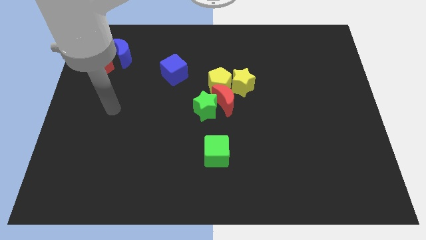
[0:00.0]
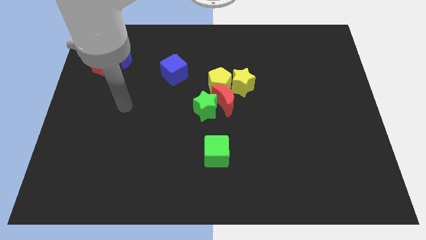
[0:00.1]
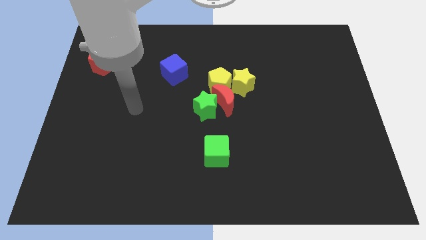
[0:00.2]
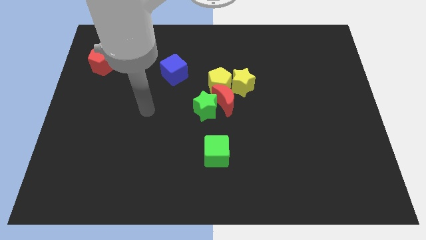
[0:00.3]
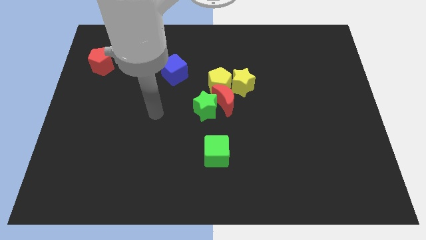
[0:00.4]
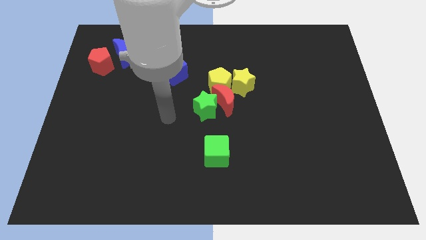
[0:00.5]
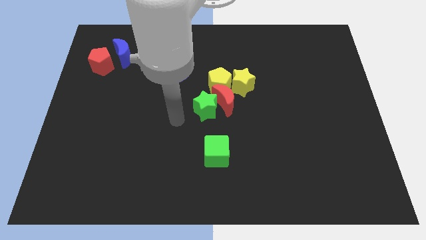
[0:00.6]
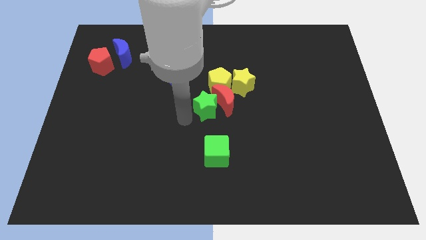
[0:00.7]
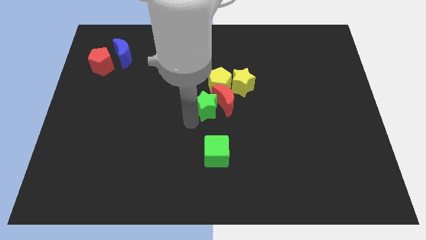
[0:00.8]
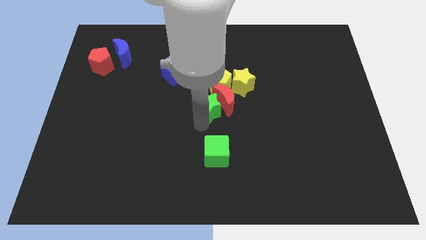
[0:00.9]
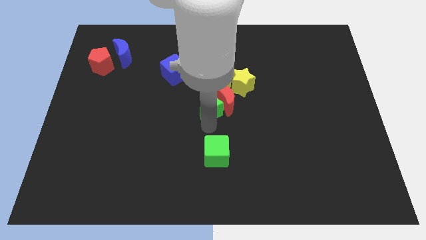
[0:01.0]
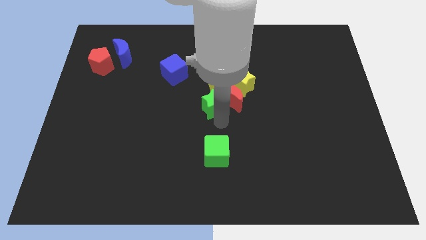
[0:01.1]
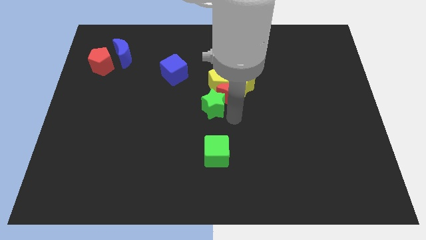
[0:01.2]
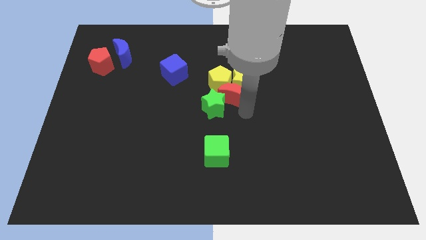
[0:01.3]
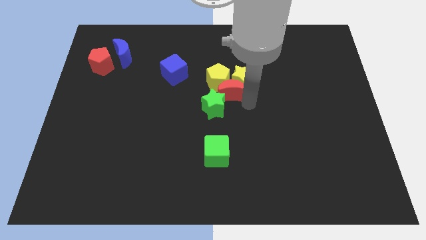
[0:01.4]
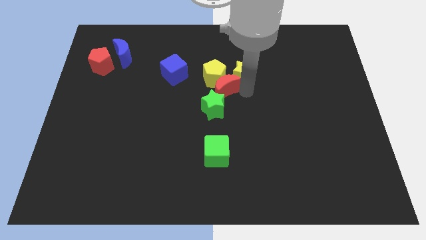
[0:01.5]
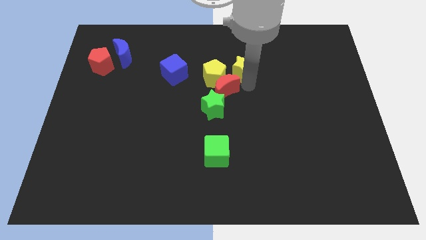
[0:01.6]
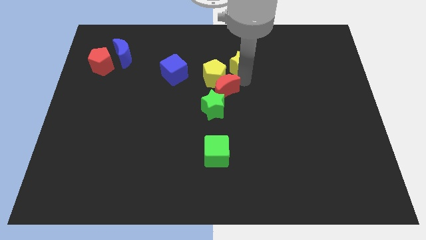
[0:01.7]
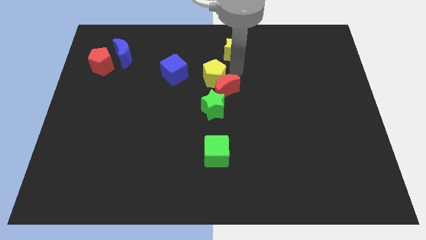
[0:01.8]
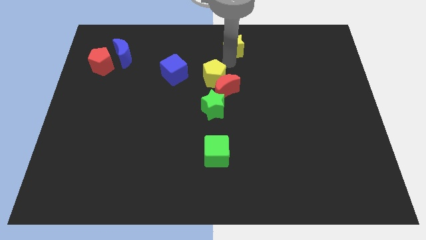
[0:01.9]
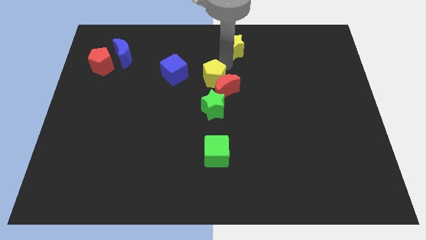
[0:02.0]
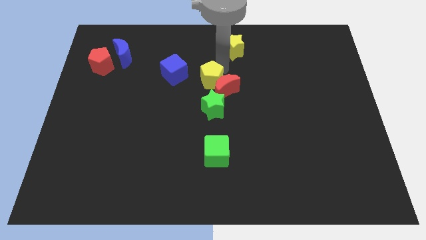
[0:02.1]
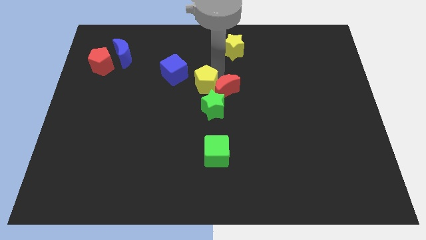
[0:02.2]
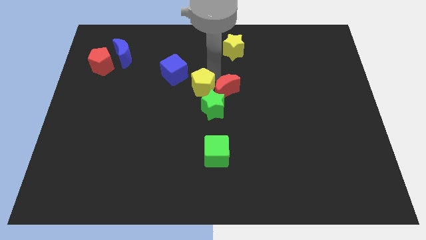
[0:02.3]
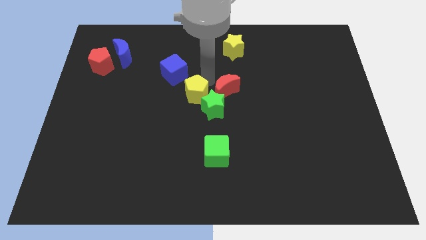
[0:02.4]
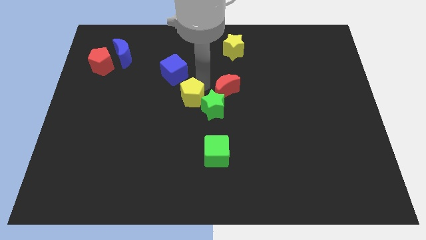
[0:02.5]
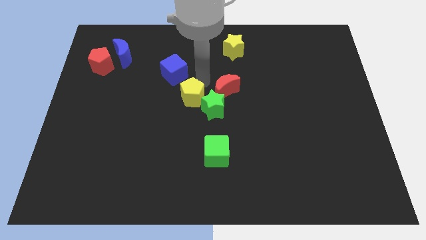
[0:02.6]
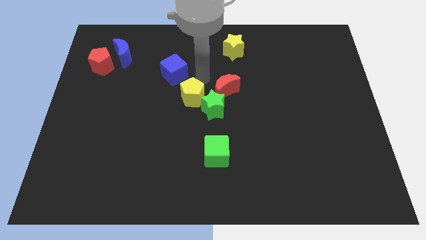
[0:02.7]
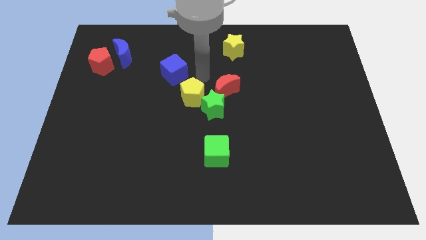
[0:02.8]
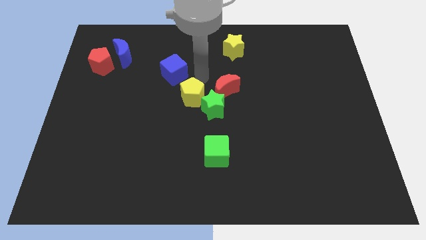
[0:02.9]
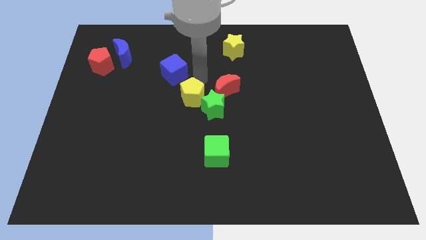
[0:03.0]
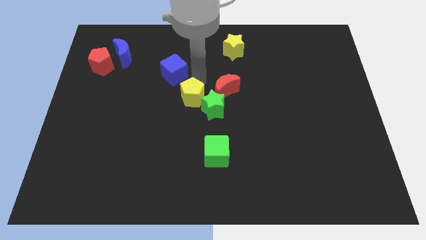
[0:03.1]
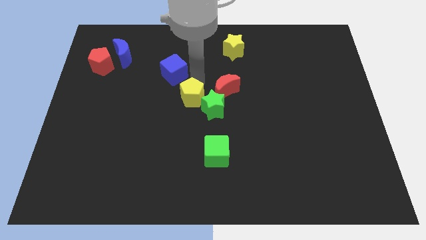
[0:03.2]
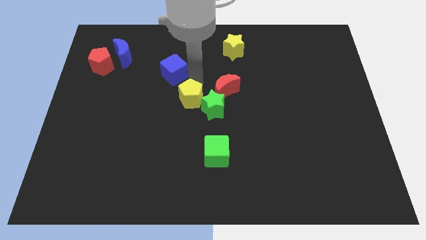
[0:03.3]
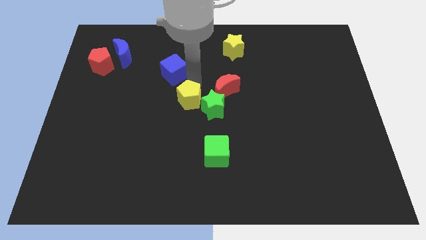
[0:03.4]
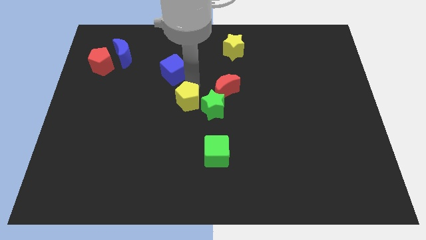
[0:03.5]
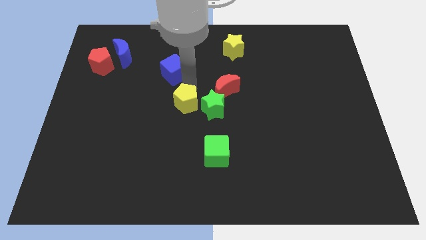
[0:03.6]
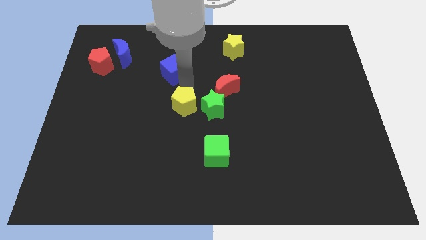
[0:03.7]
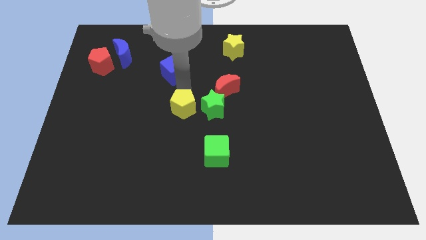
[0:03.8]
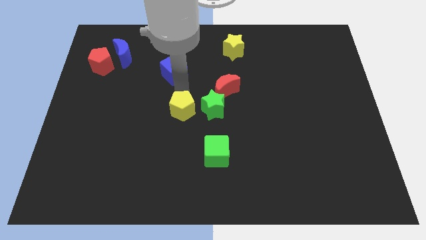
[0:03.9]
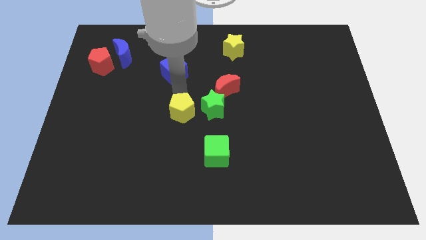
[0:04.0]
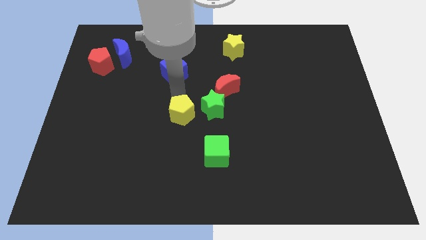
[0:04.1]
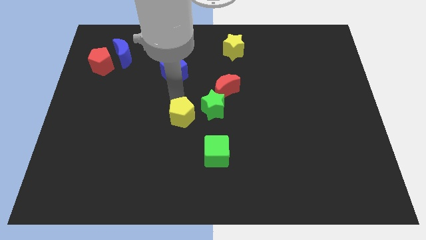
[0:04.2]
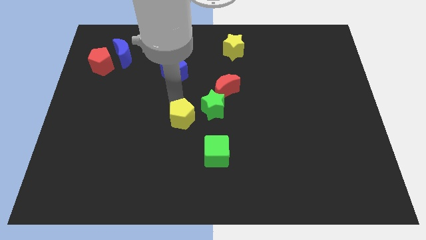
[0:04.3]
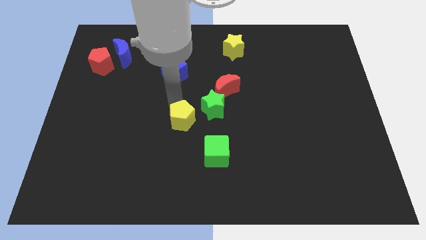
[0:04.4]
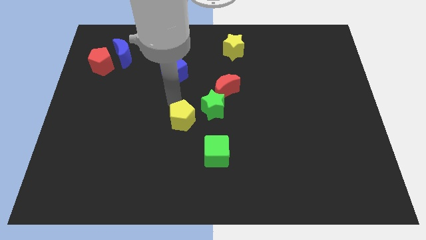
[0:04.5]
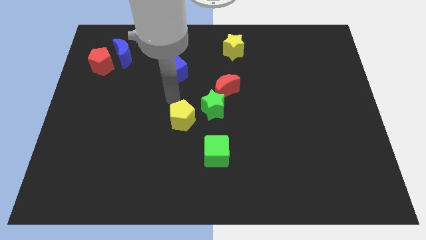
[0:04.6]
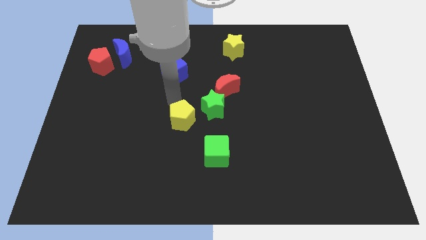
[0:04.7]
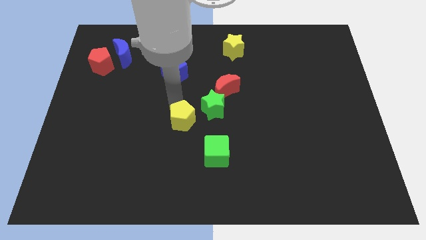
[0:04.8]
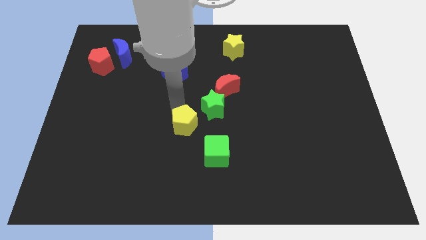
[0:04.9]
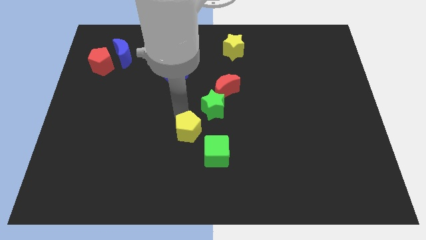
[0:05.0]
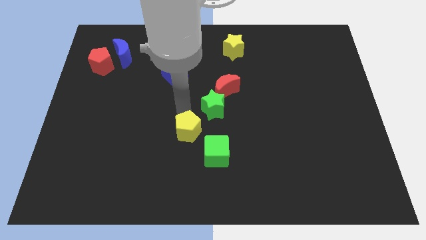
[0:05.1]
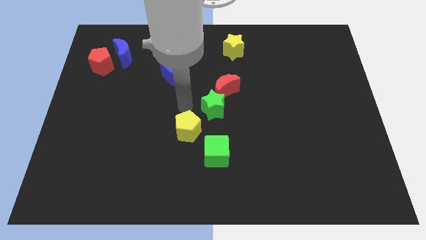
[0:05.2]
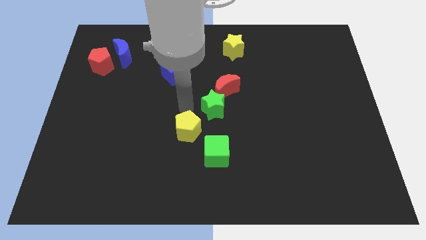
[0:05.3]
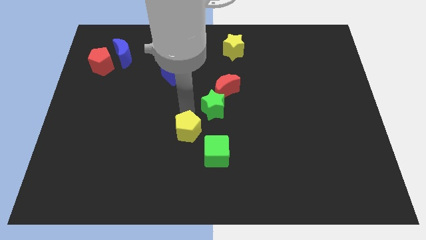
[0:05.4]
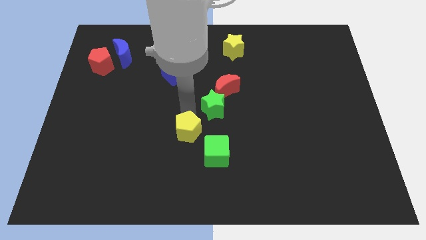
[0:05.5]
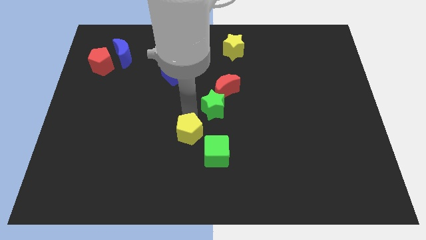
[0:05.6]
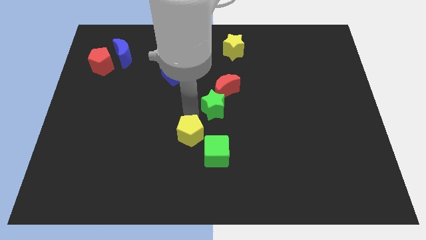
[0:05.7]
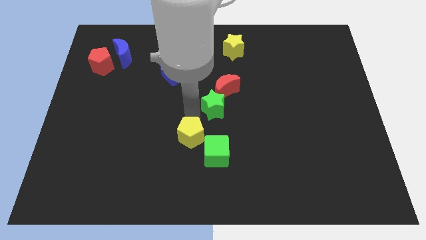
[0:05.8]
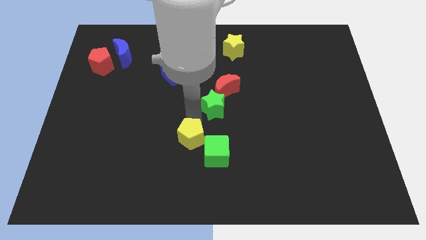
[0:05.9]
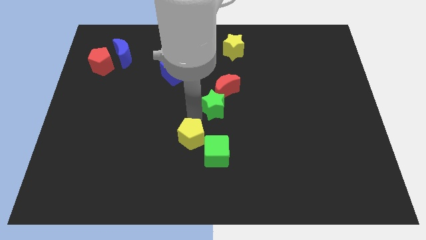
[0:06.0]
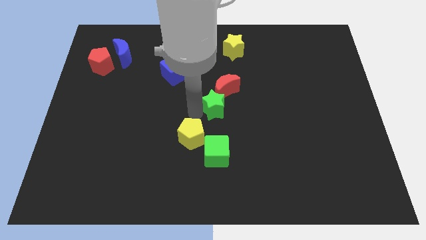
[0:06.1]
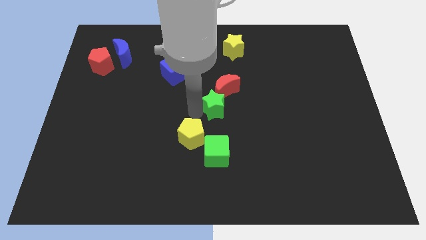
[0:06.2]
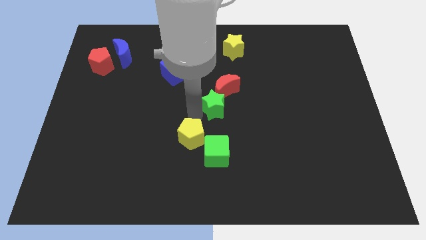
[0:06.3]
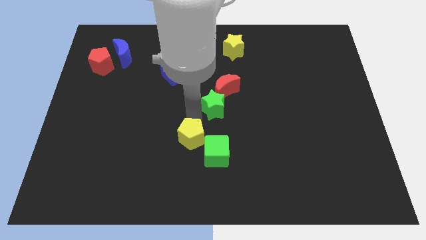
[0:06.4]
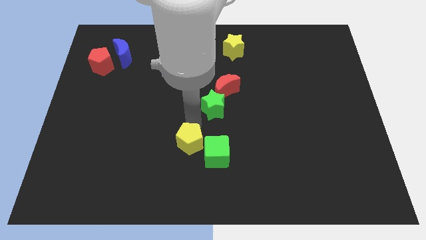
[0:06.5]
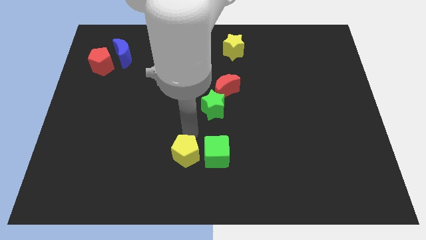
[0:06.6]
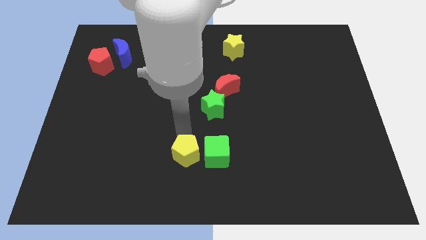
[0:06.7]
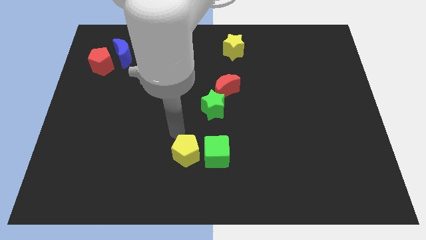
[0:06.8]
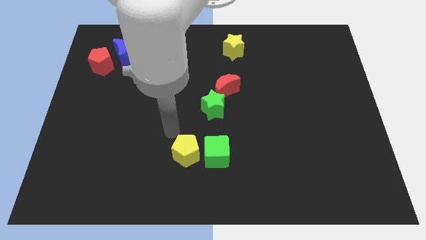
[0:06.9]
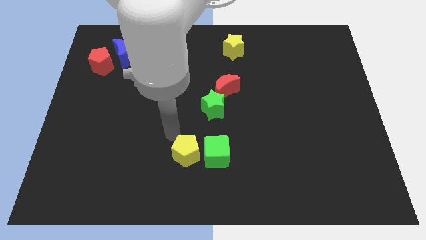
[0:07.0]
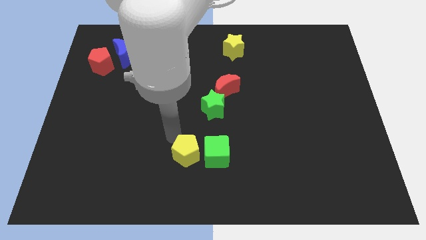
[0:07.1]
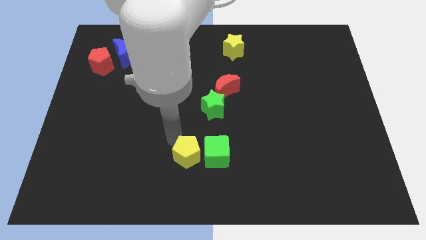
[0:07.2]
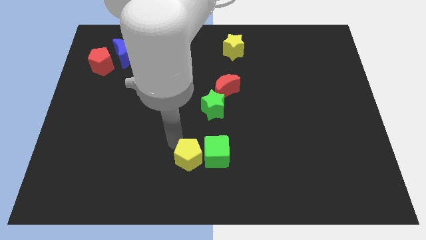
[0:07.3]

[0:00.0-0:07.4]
move the yellow pentagon to the bottom side
